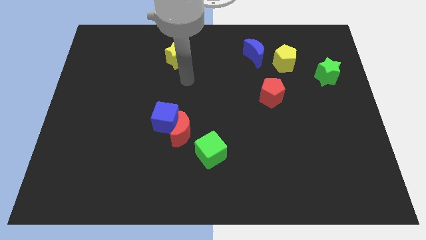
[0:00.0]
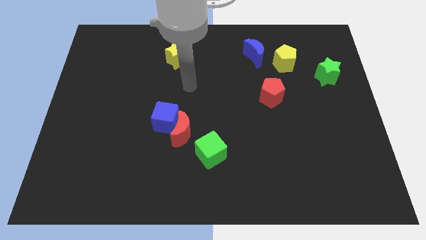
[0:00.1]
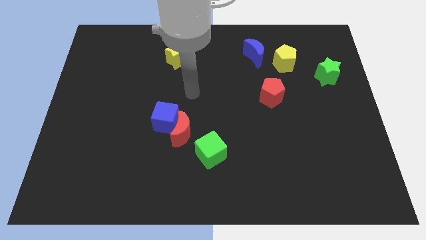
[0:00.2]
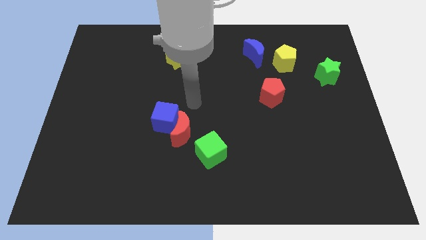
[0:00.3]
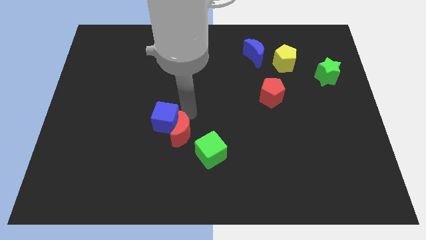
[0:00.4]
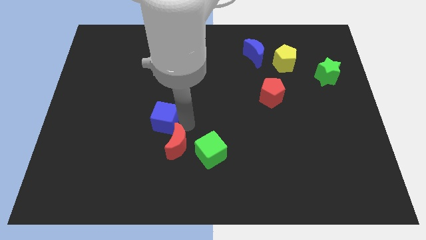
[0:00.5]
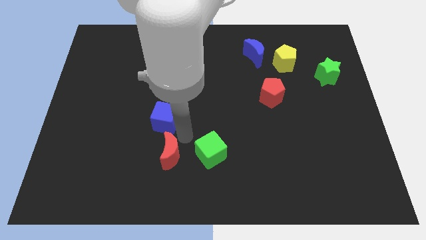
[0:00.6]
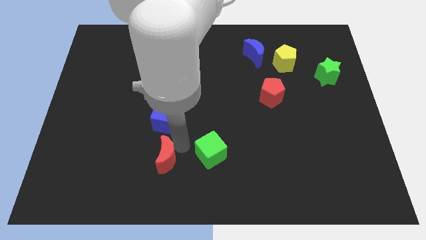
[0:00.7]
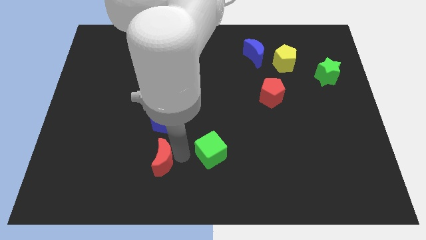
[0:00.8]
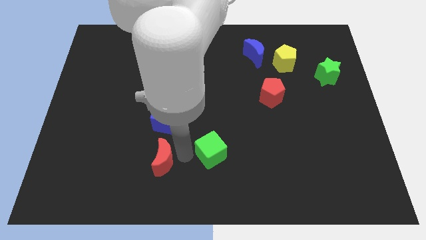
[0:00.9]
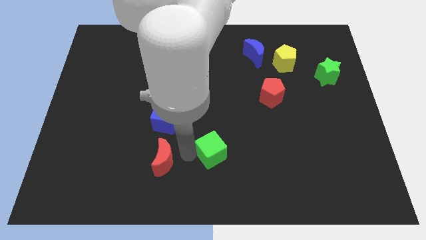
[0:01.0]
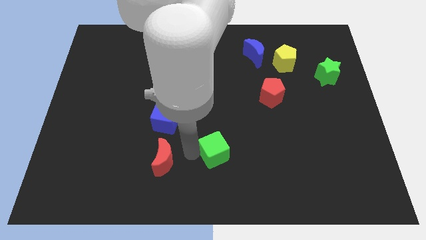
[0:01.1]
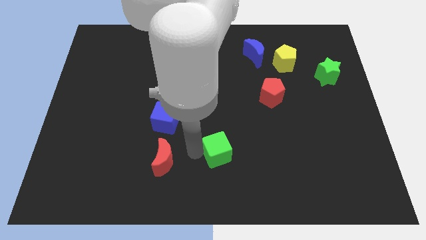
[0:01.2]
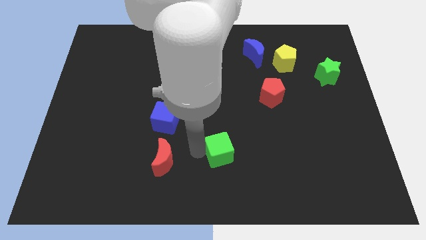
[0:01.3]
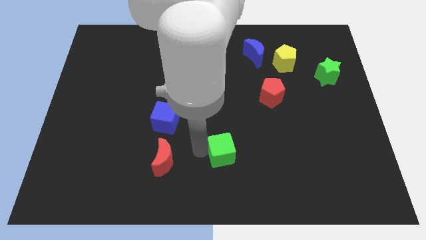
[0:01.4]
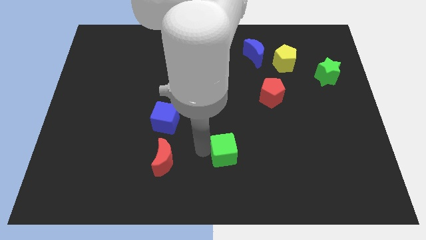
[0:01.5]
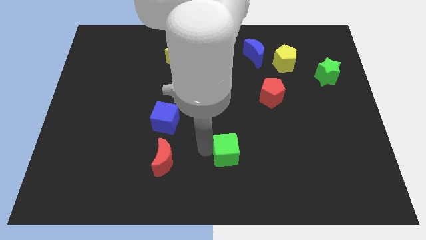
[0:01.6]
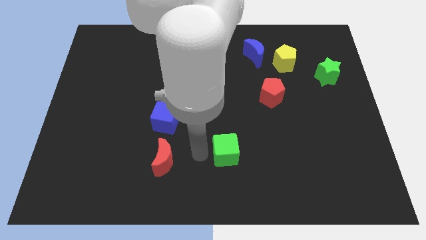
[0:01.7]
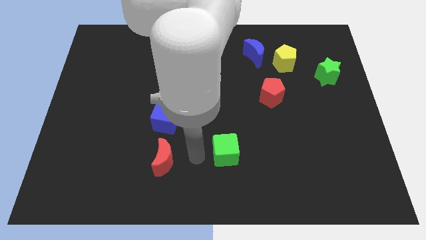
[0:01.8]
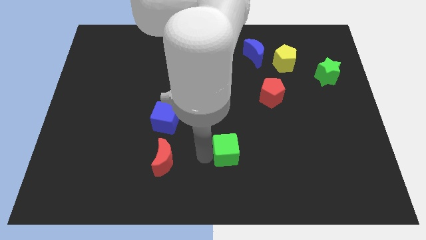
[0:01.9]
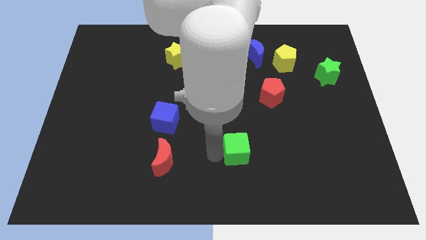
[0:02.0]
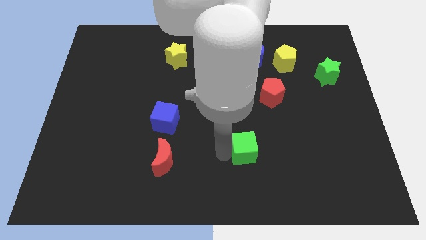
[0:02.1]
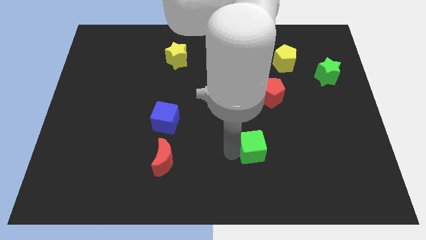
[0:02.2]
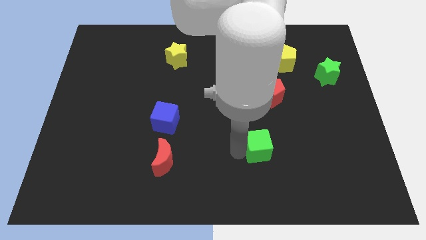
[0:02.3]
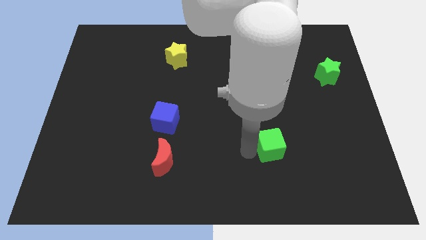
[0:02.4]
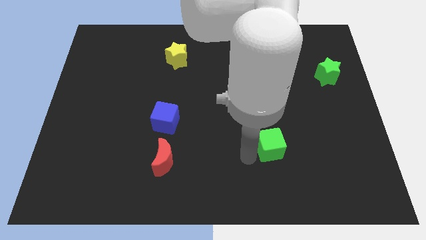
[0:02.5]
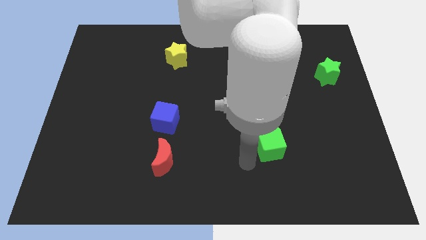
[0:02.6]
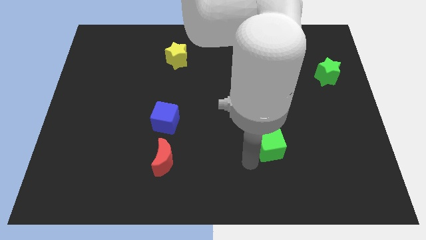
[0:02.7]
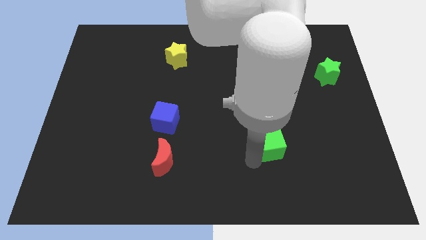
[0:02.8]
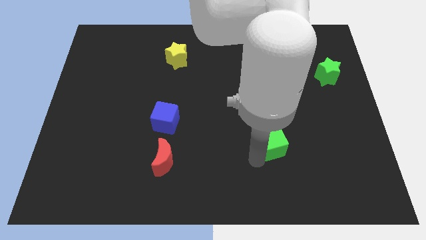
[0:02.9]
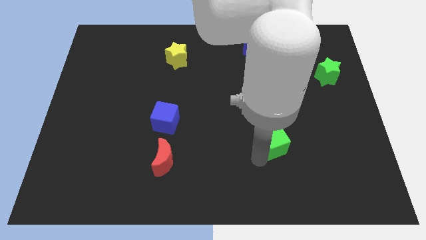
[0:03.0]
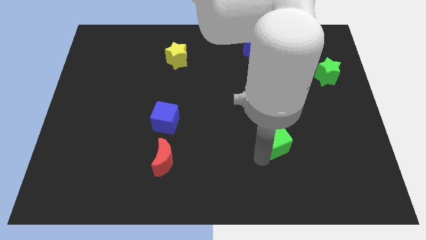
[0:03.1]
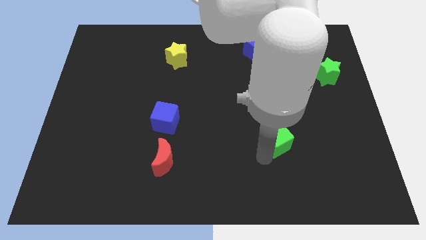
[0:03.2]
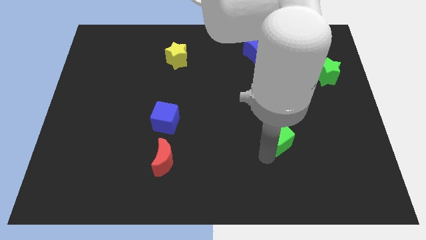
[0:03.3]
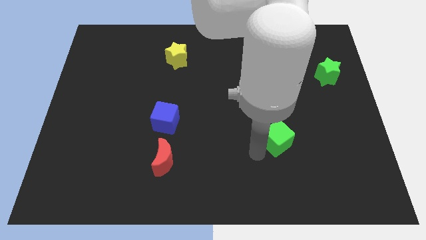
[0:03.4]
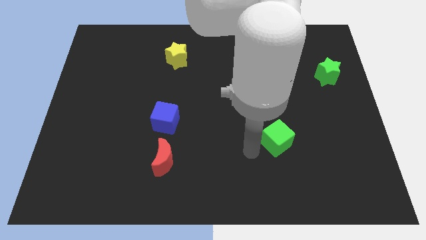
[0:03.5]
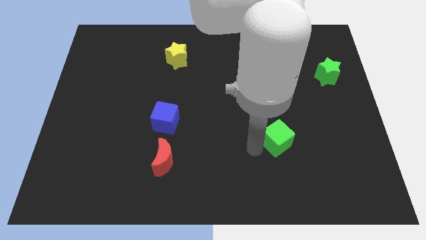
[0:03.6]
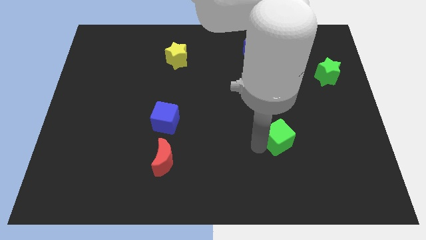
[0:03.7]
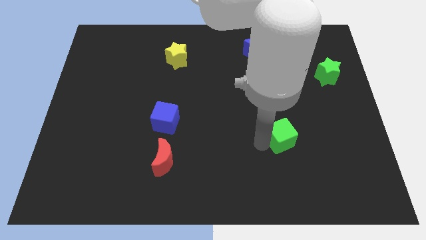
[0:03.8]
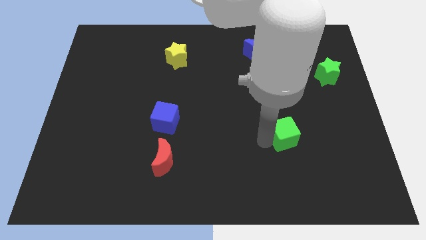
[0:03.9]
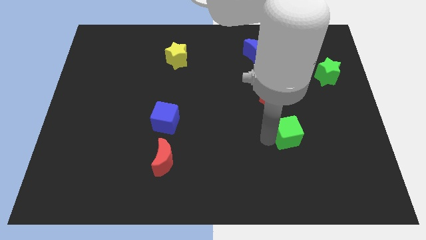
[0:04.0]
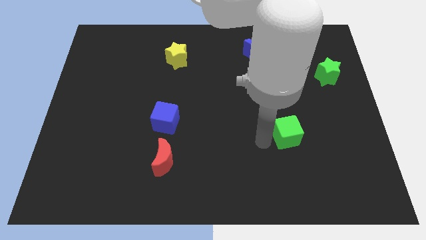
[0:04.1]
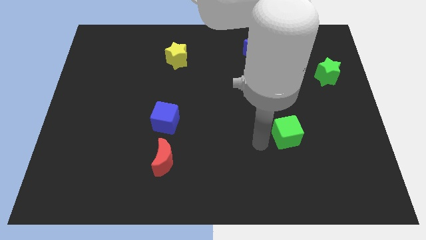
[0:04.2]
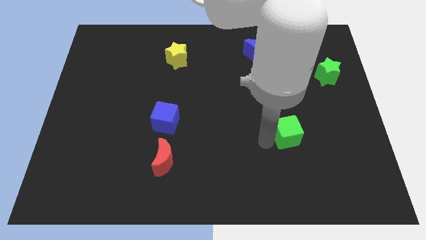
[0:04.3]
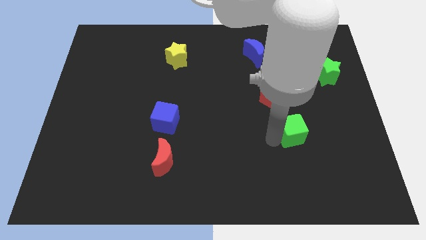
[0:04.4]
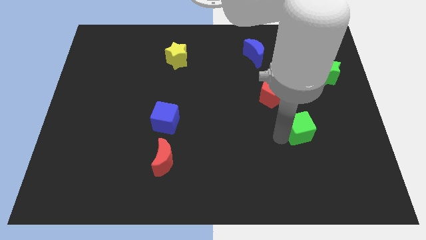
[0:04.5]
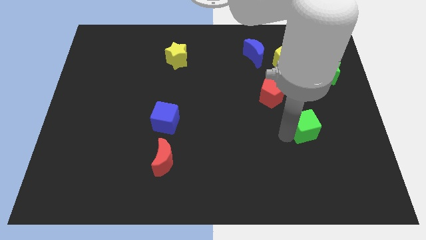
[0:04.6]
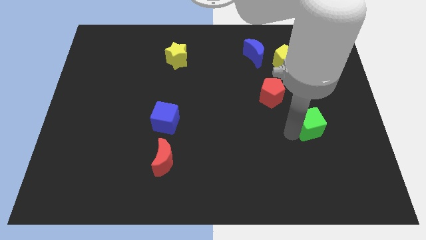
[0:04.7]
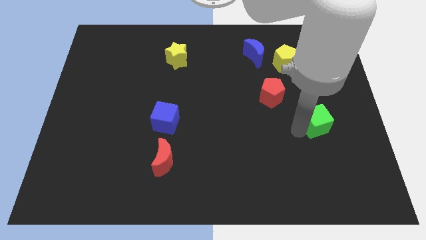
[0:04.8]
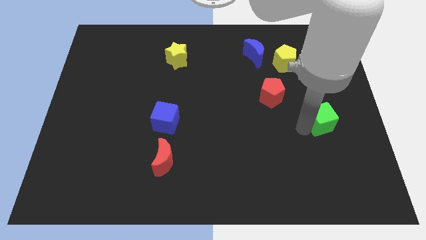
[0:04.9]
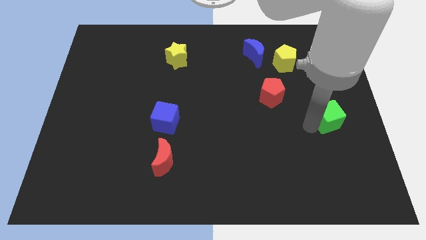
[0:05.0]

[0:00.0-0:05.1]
put the green cube to the right side

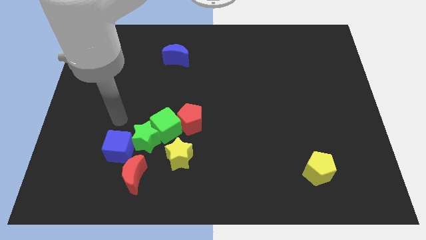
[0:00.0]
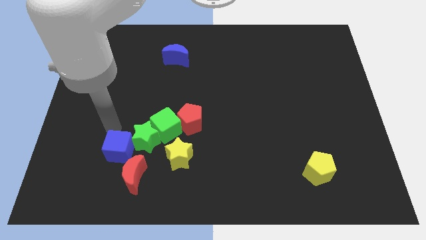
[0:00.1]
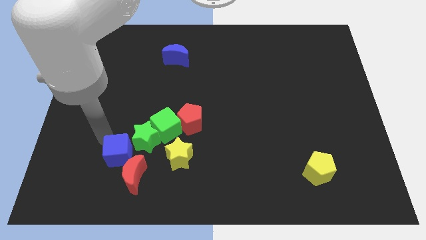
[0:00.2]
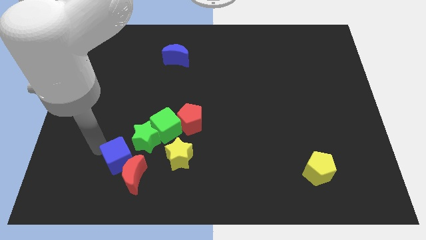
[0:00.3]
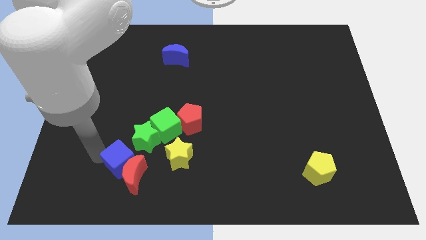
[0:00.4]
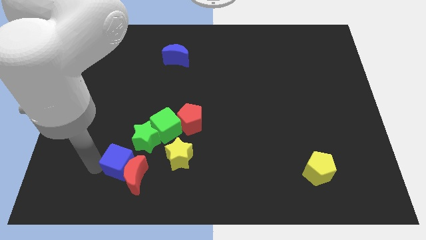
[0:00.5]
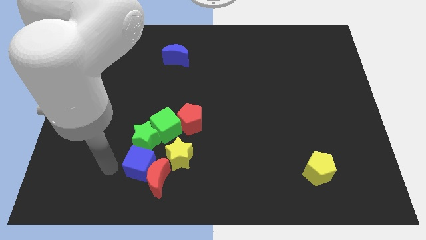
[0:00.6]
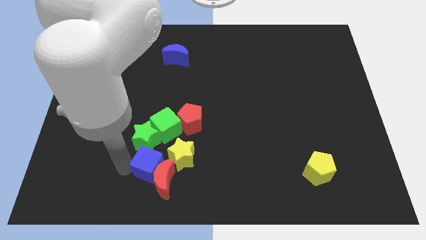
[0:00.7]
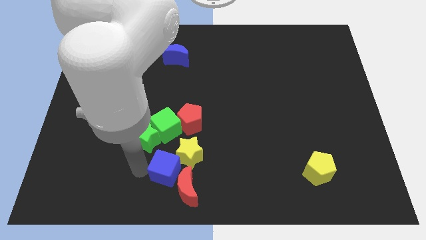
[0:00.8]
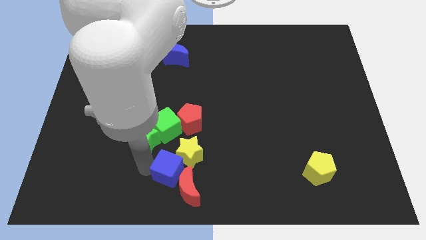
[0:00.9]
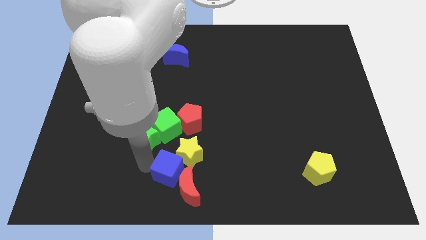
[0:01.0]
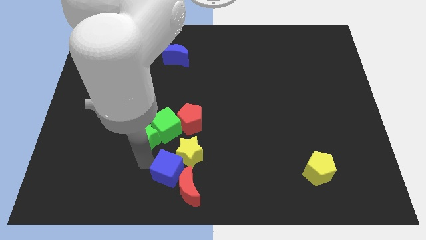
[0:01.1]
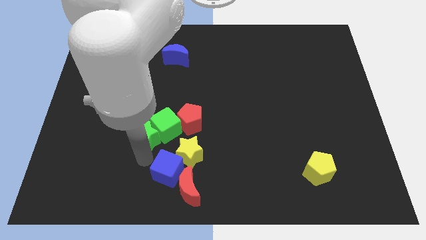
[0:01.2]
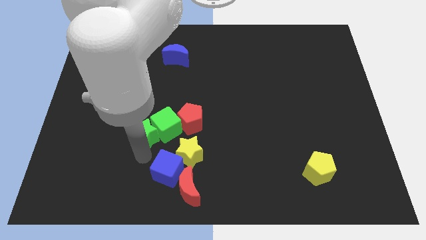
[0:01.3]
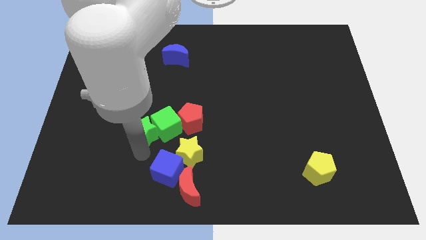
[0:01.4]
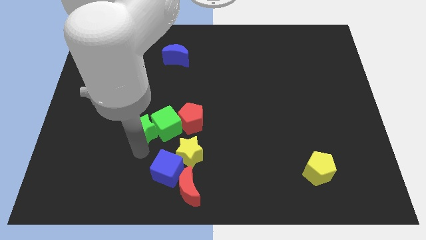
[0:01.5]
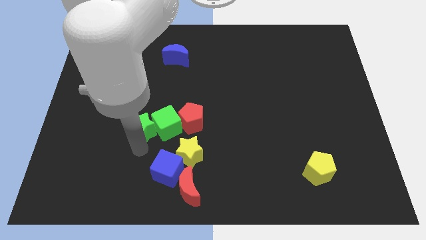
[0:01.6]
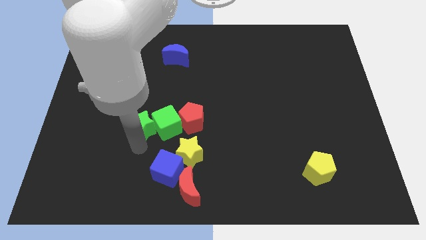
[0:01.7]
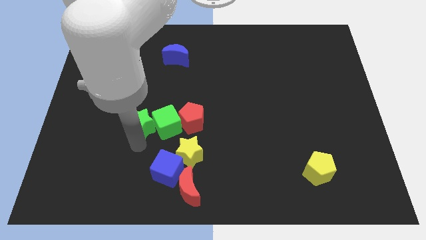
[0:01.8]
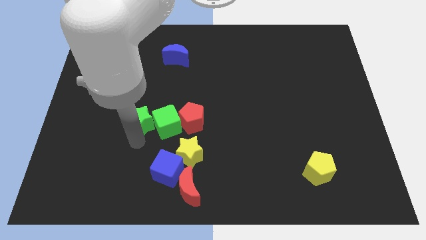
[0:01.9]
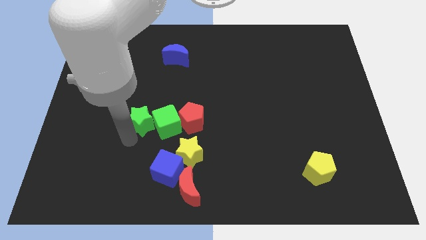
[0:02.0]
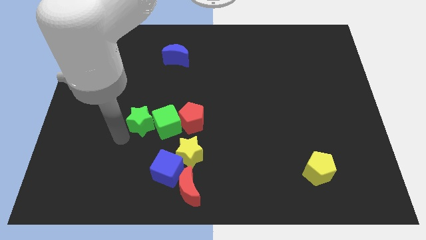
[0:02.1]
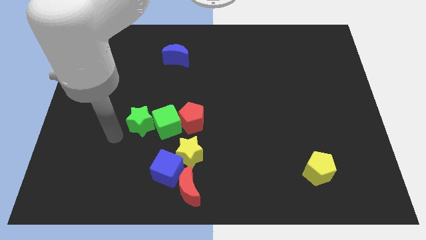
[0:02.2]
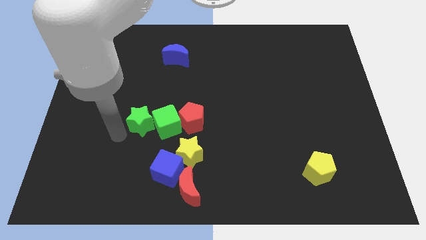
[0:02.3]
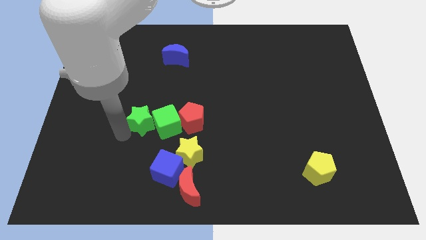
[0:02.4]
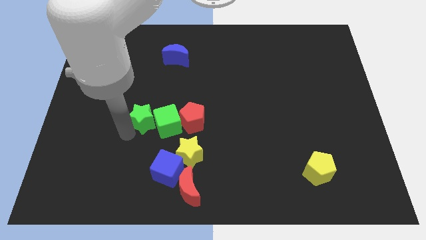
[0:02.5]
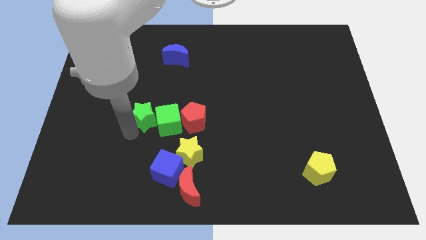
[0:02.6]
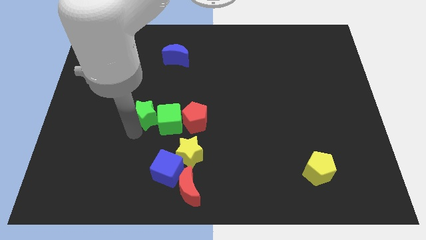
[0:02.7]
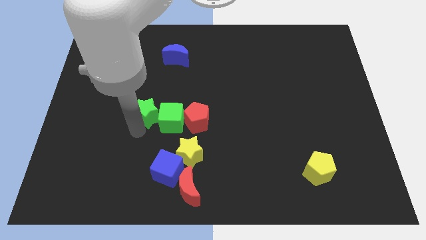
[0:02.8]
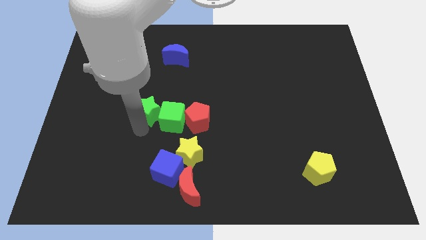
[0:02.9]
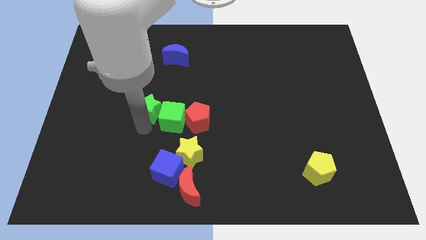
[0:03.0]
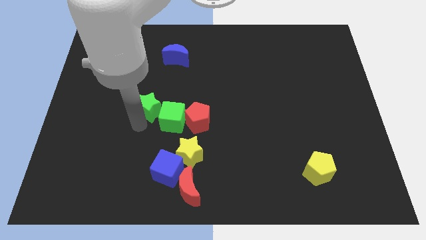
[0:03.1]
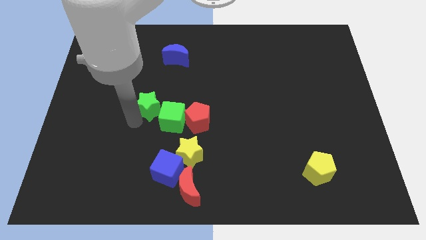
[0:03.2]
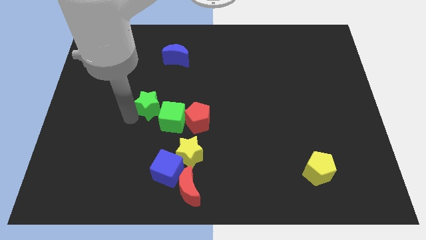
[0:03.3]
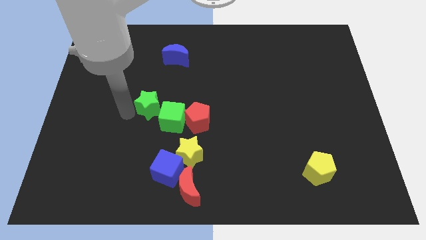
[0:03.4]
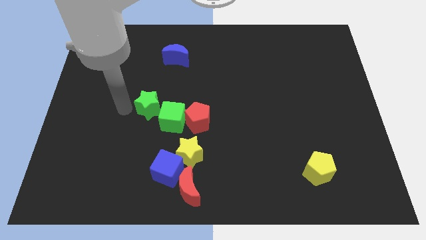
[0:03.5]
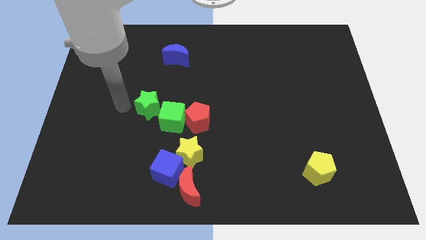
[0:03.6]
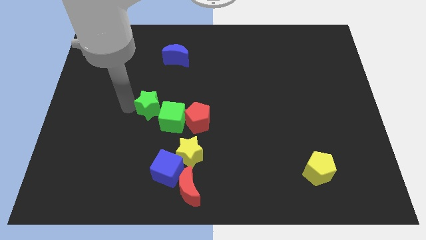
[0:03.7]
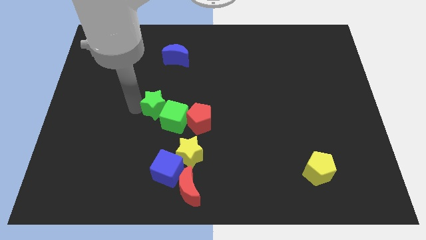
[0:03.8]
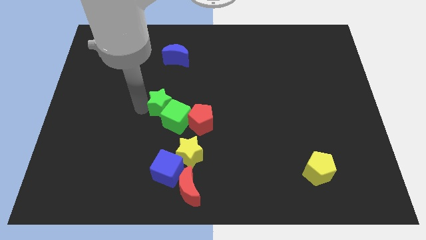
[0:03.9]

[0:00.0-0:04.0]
push the green star to the center of the board
